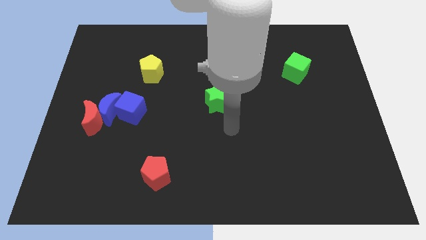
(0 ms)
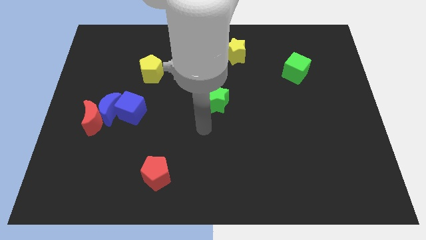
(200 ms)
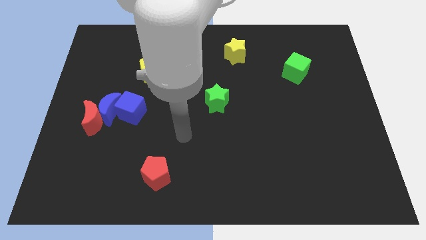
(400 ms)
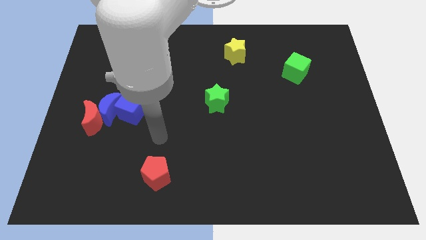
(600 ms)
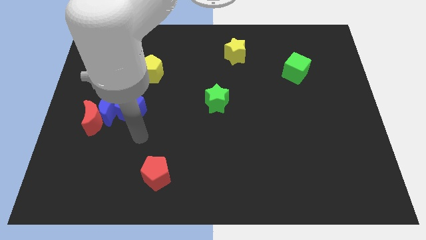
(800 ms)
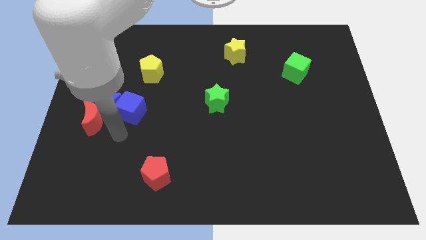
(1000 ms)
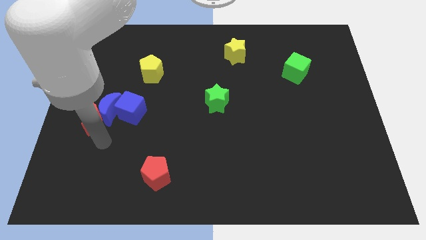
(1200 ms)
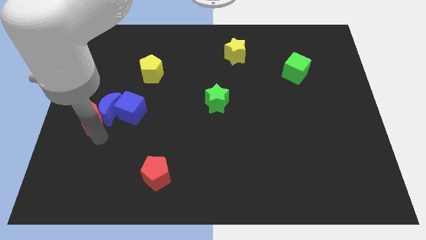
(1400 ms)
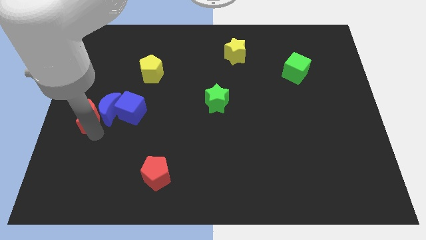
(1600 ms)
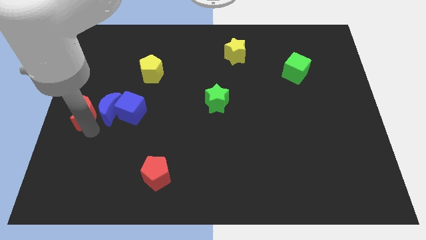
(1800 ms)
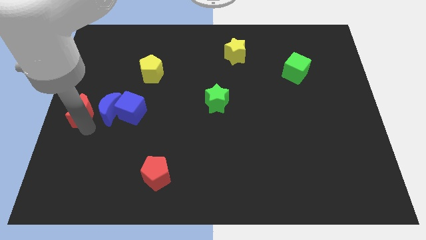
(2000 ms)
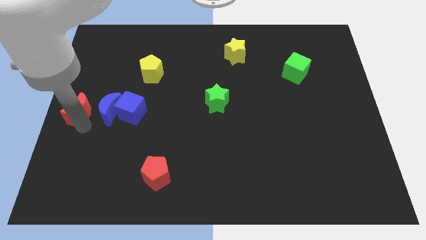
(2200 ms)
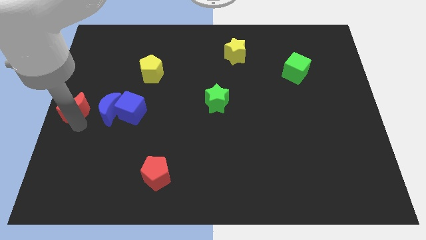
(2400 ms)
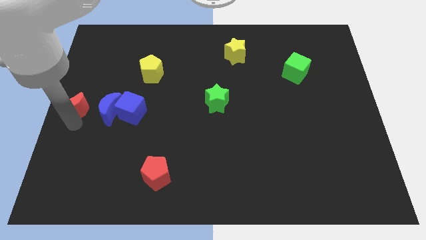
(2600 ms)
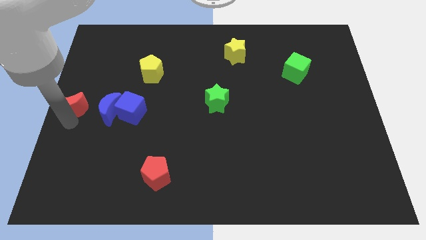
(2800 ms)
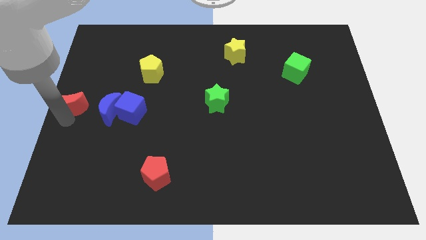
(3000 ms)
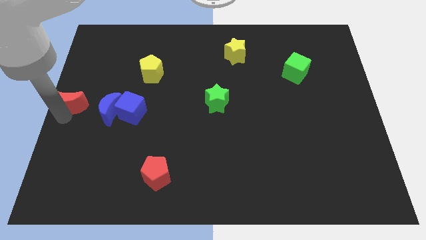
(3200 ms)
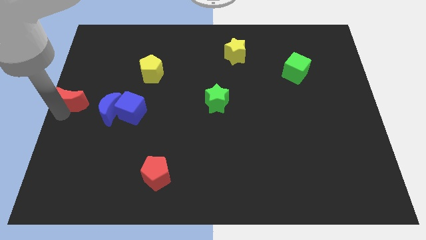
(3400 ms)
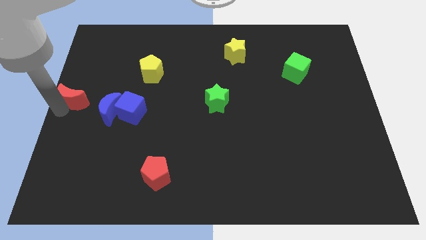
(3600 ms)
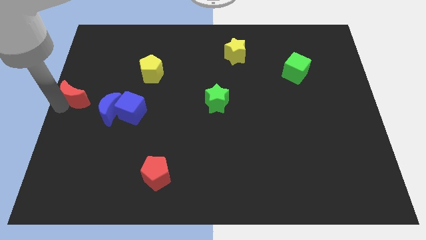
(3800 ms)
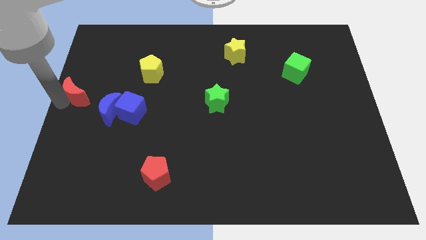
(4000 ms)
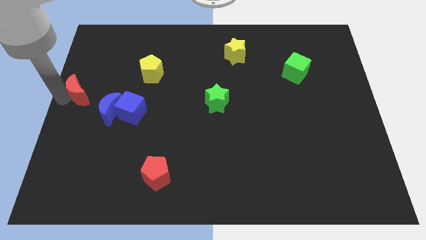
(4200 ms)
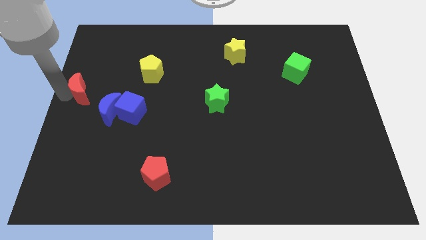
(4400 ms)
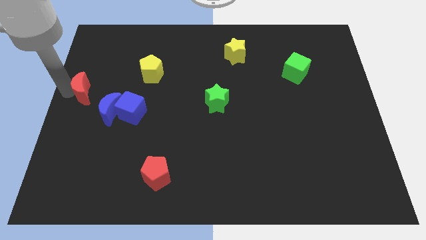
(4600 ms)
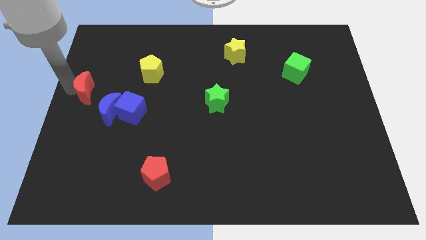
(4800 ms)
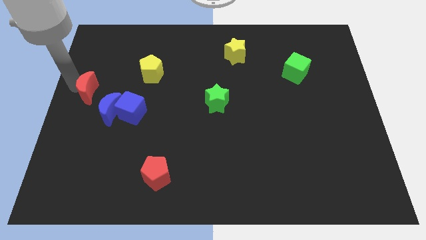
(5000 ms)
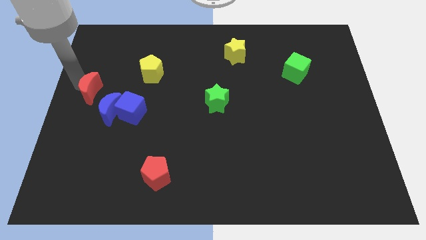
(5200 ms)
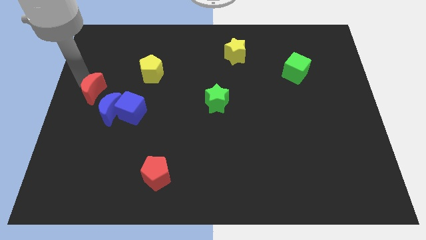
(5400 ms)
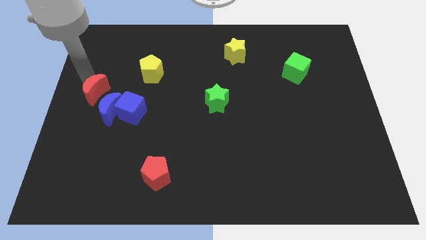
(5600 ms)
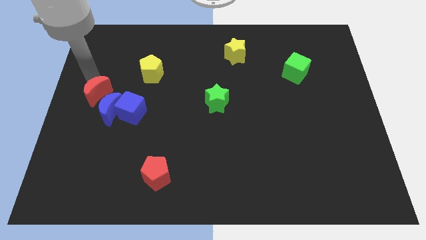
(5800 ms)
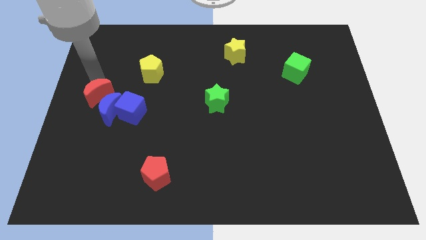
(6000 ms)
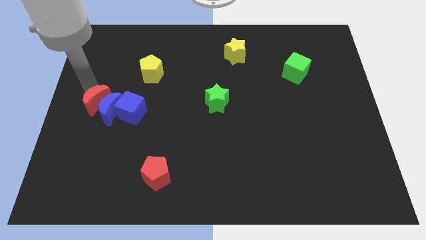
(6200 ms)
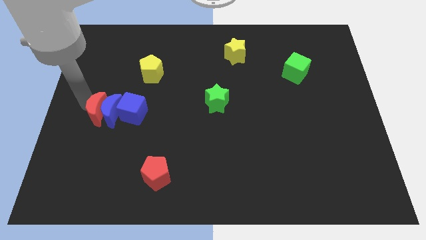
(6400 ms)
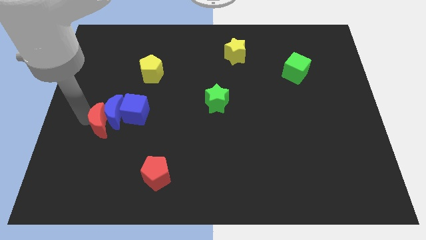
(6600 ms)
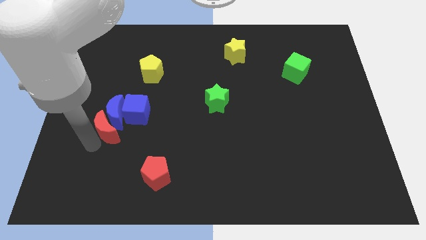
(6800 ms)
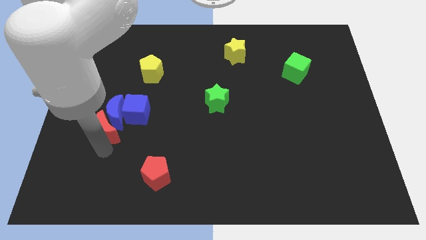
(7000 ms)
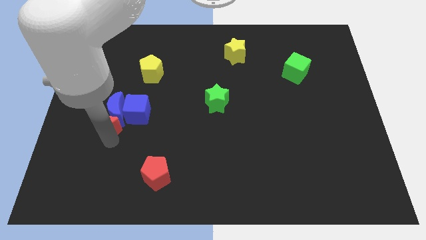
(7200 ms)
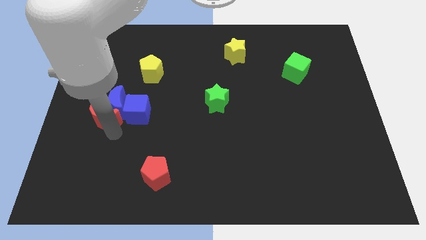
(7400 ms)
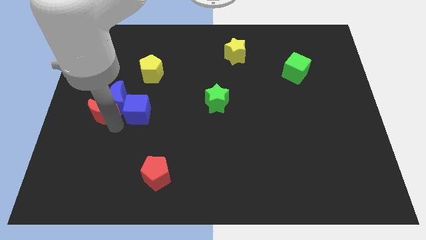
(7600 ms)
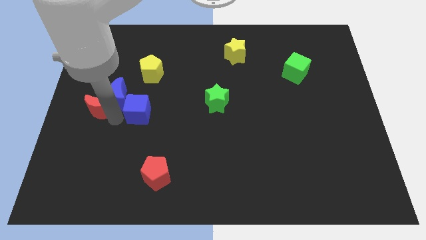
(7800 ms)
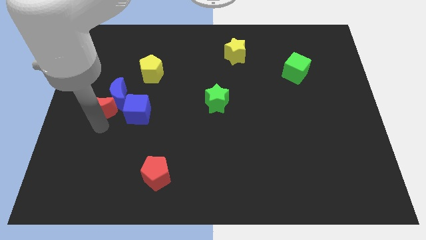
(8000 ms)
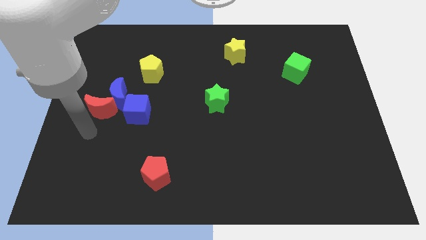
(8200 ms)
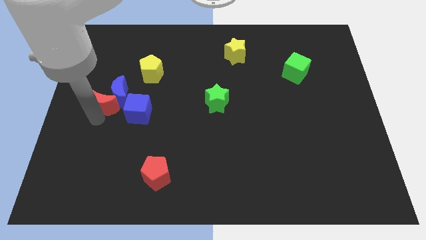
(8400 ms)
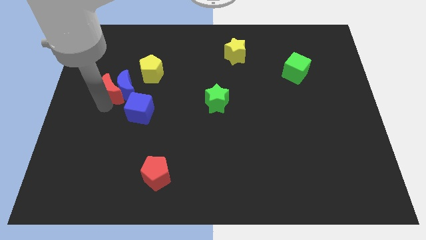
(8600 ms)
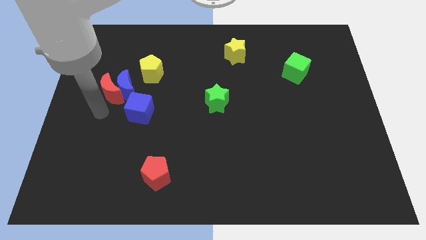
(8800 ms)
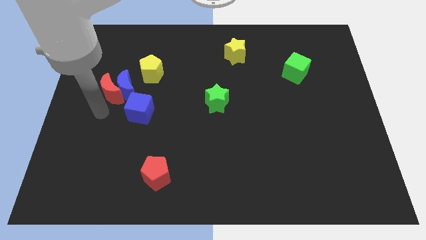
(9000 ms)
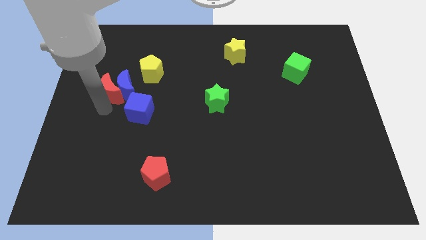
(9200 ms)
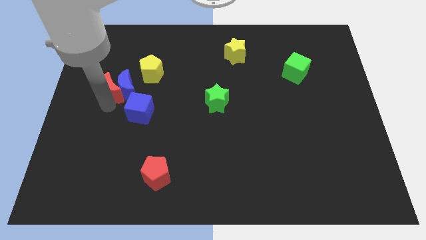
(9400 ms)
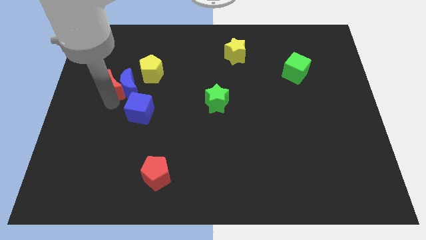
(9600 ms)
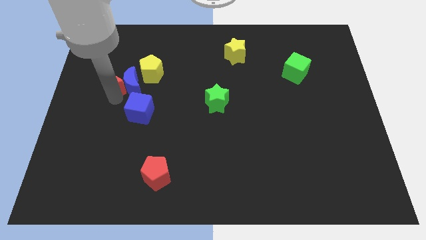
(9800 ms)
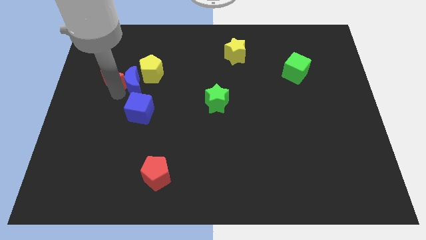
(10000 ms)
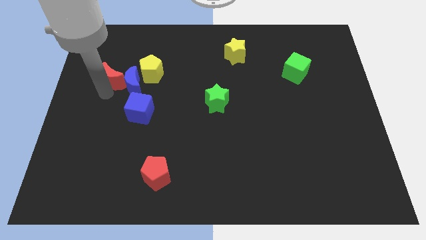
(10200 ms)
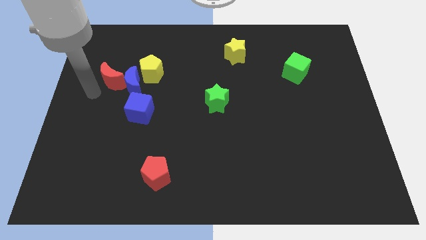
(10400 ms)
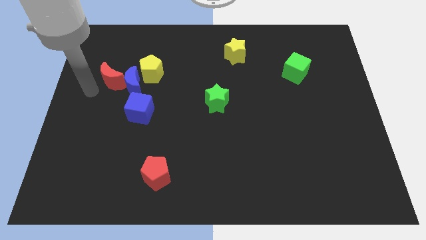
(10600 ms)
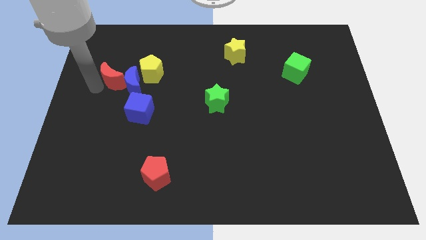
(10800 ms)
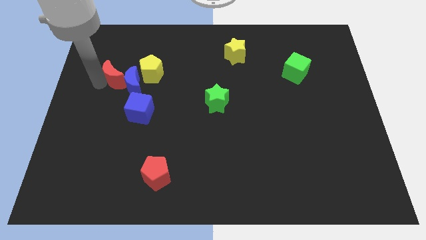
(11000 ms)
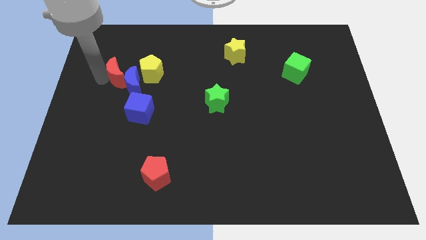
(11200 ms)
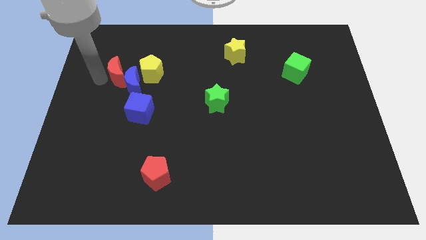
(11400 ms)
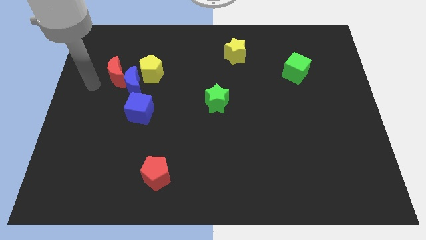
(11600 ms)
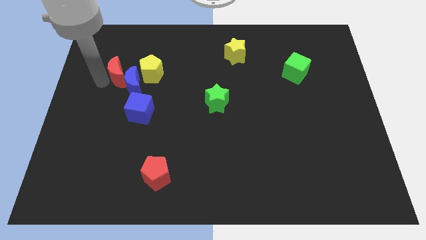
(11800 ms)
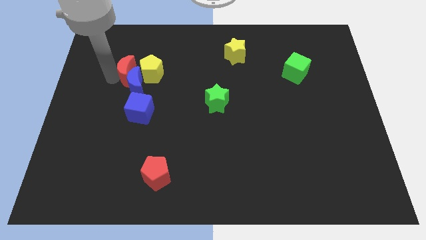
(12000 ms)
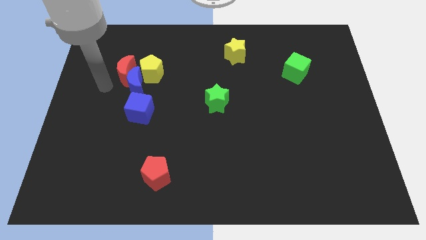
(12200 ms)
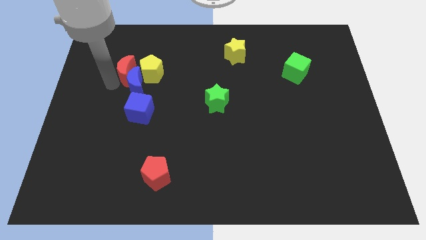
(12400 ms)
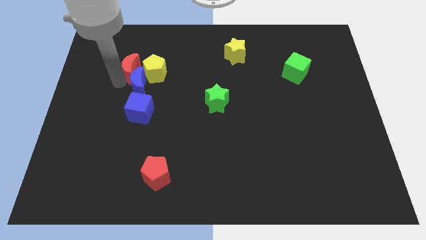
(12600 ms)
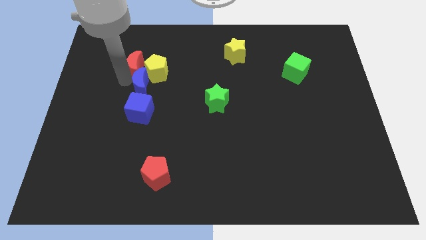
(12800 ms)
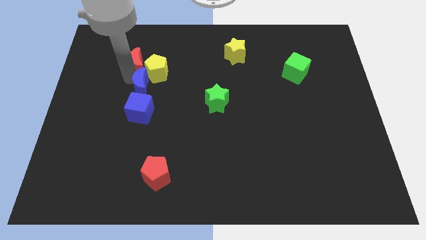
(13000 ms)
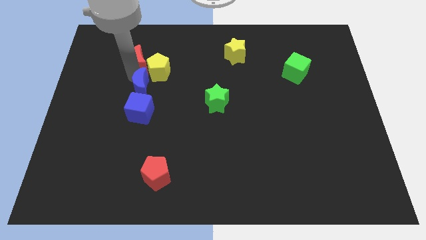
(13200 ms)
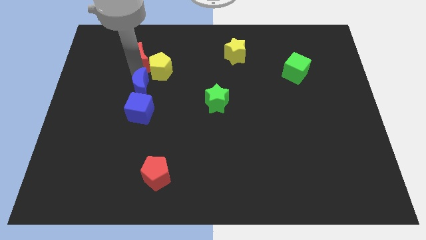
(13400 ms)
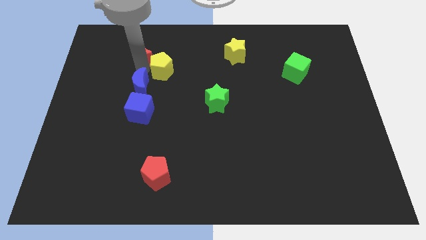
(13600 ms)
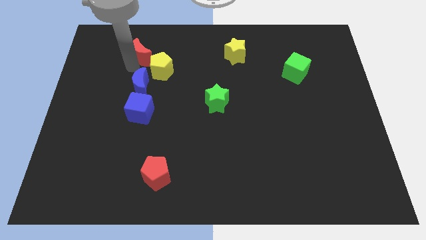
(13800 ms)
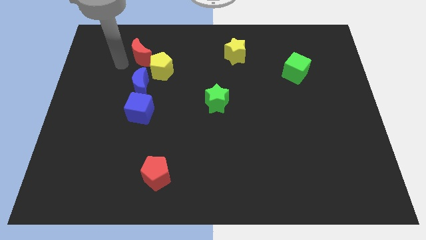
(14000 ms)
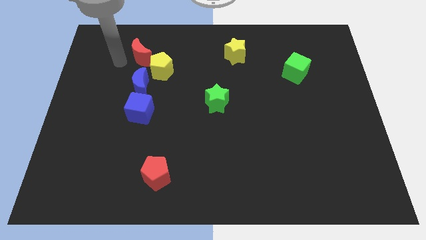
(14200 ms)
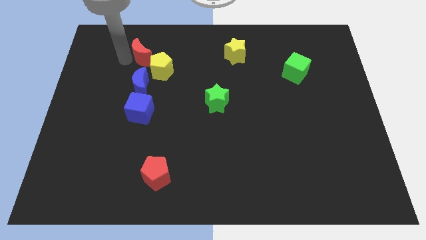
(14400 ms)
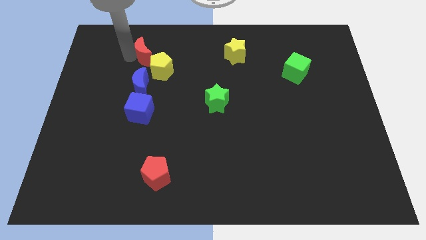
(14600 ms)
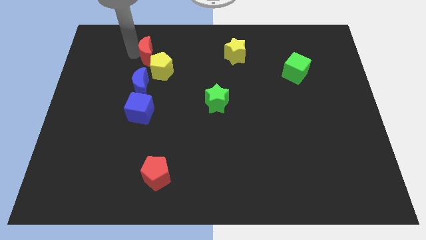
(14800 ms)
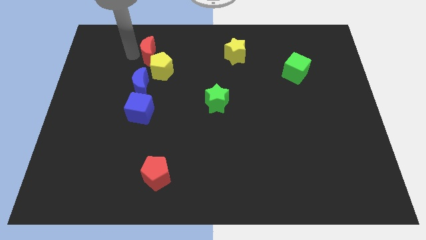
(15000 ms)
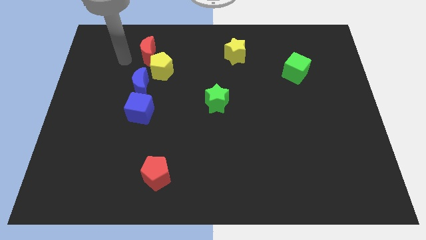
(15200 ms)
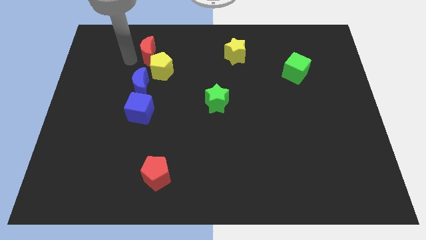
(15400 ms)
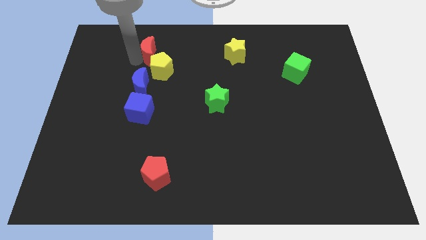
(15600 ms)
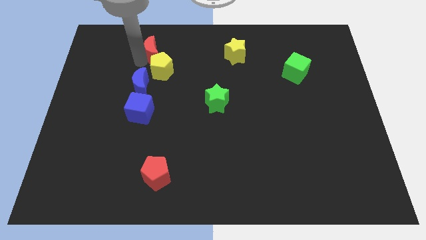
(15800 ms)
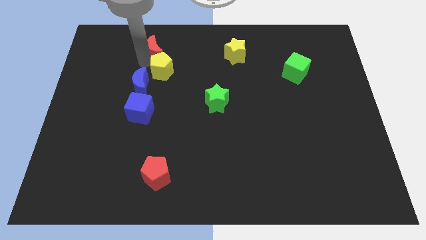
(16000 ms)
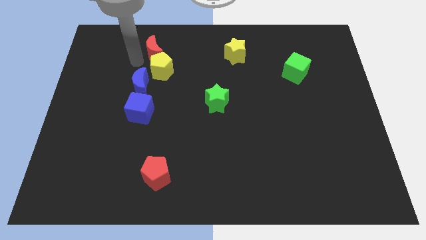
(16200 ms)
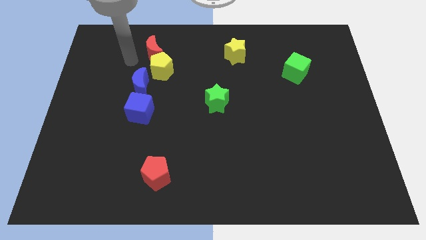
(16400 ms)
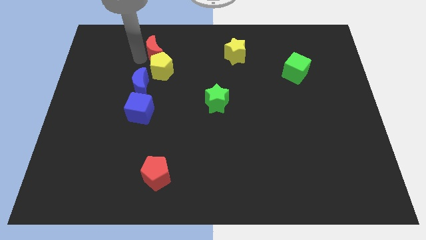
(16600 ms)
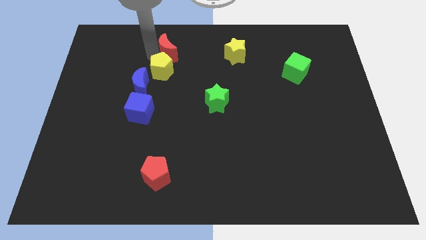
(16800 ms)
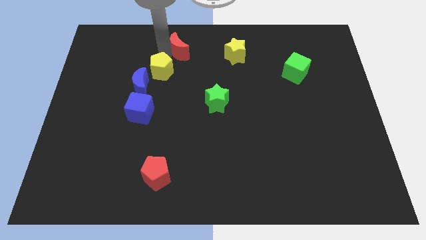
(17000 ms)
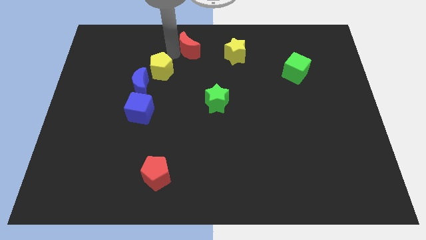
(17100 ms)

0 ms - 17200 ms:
slide the red moon to the towards your base
